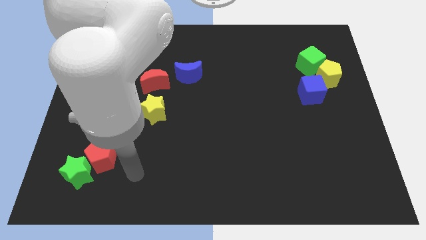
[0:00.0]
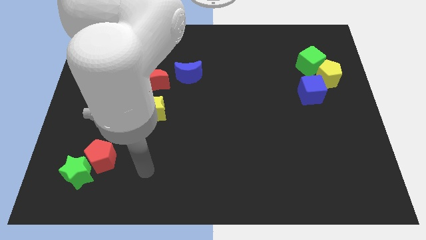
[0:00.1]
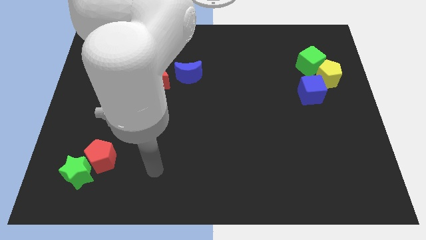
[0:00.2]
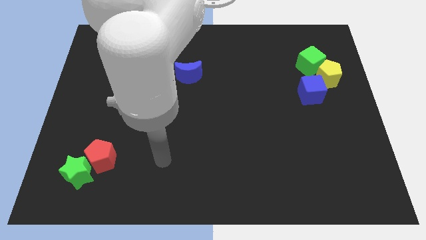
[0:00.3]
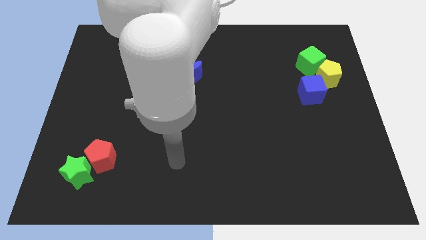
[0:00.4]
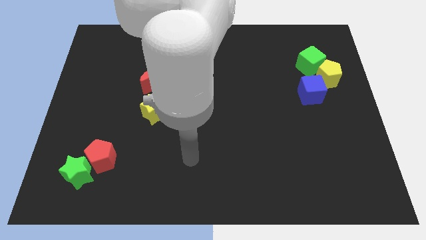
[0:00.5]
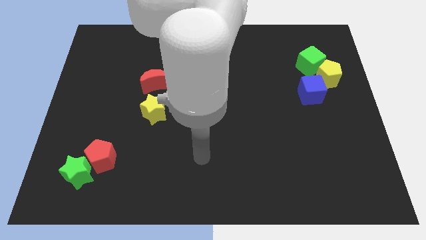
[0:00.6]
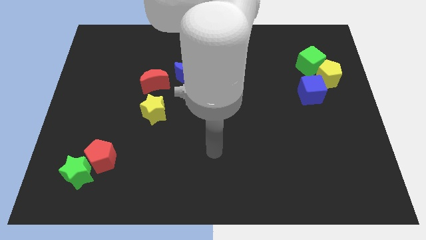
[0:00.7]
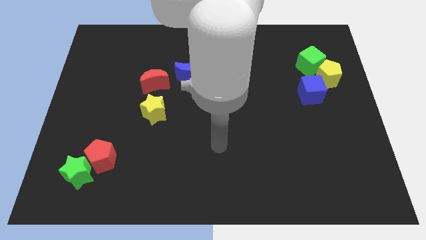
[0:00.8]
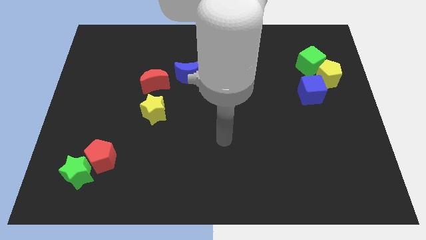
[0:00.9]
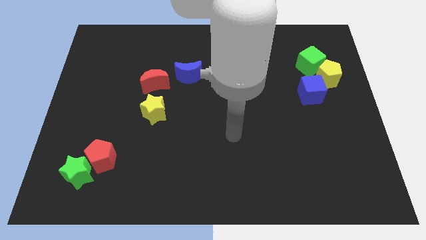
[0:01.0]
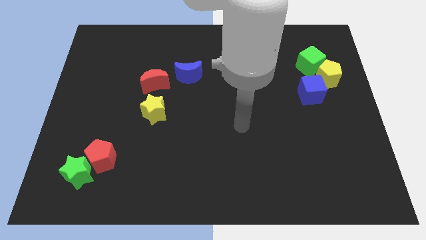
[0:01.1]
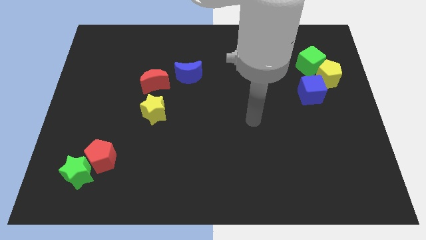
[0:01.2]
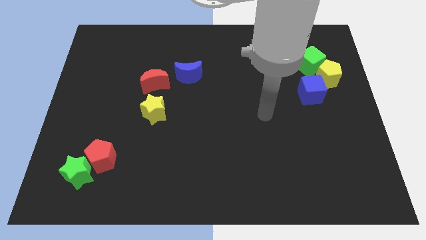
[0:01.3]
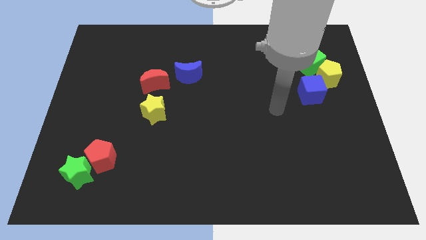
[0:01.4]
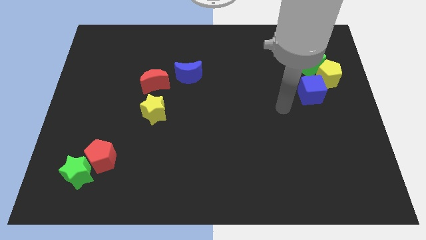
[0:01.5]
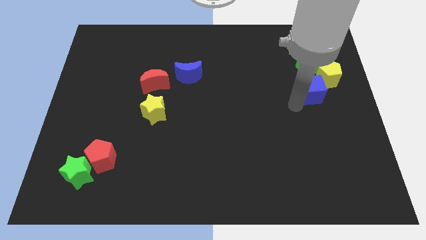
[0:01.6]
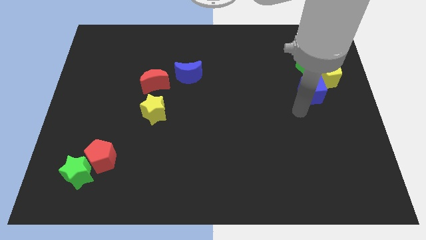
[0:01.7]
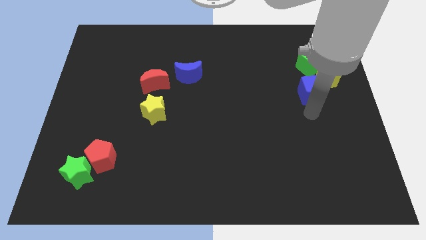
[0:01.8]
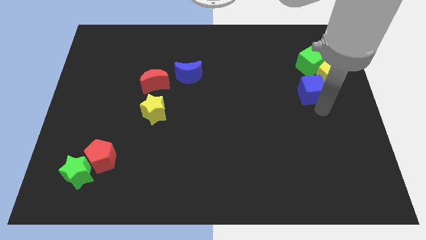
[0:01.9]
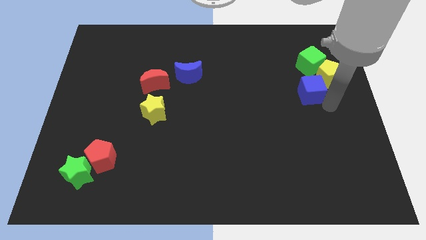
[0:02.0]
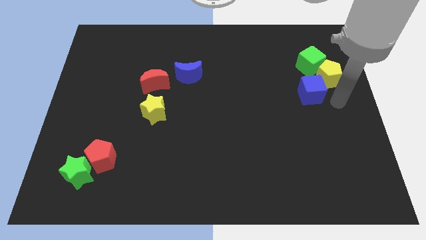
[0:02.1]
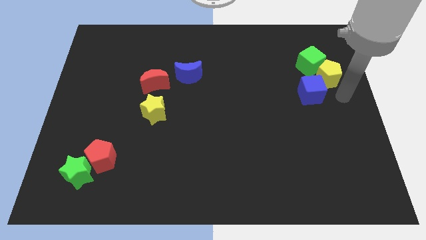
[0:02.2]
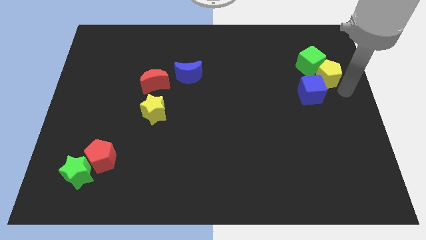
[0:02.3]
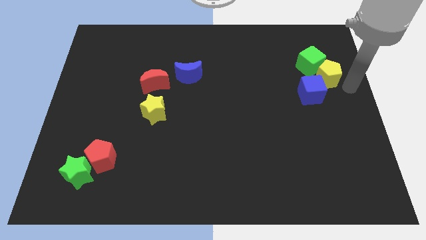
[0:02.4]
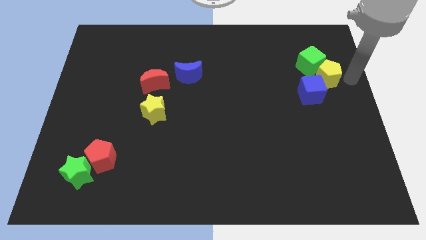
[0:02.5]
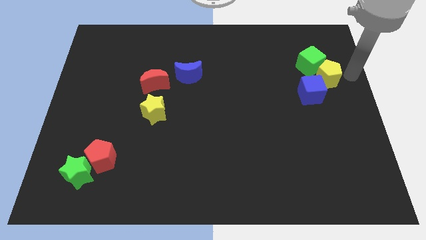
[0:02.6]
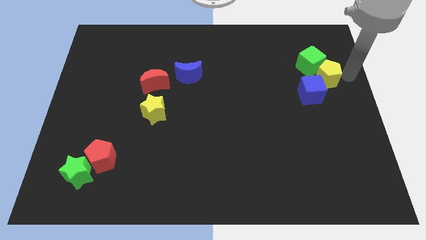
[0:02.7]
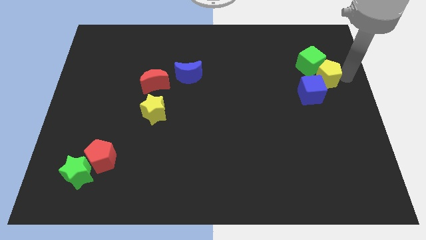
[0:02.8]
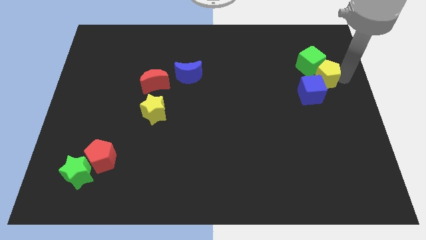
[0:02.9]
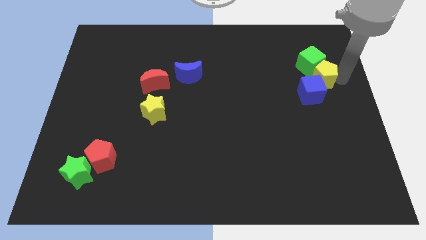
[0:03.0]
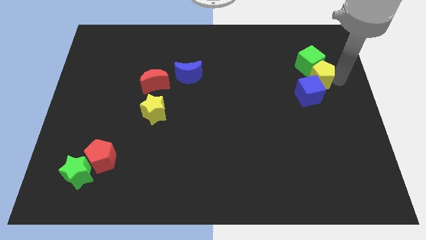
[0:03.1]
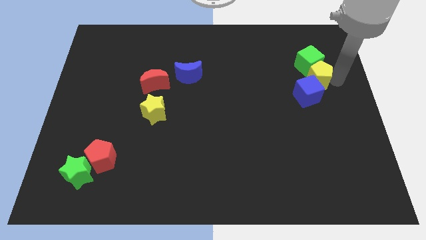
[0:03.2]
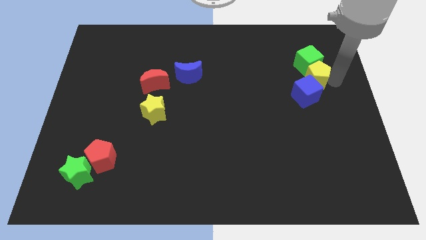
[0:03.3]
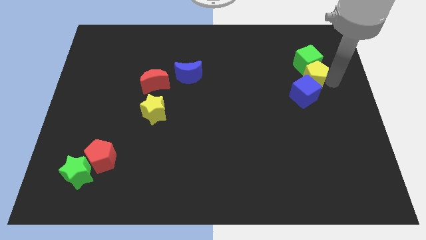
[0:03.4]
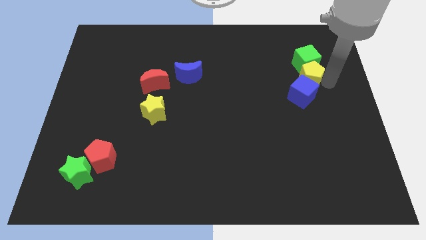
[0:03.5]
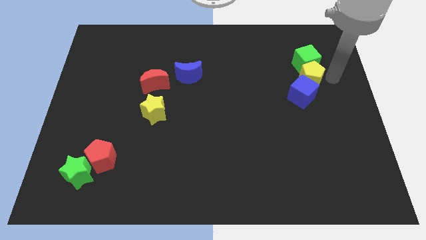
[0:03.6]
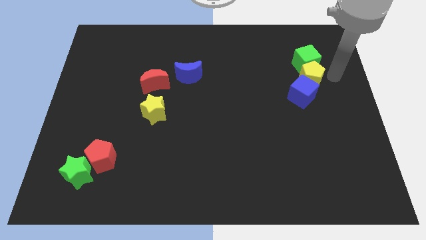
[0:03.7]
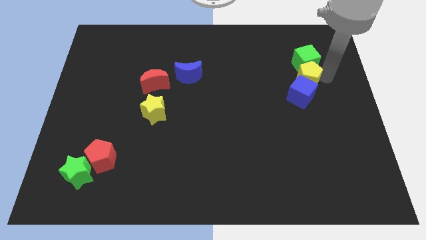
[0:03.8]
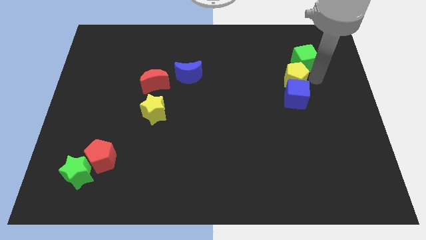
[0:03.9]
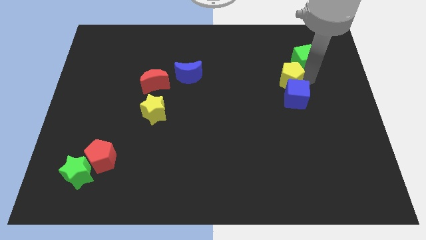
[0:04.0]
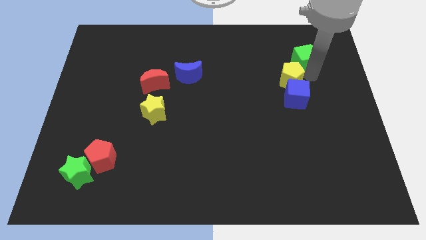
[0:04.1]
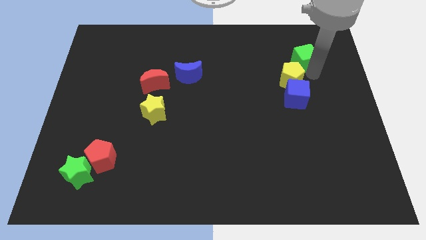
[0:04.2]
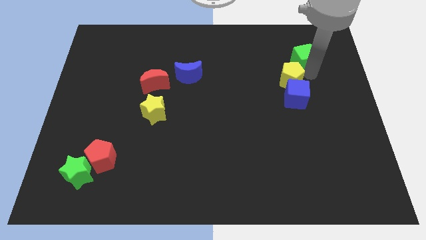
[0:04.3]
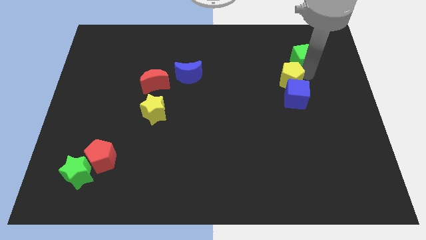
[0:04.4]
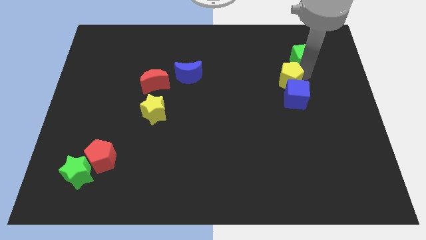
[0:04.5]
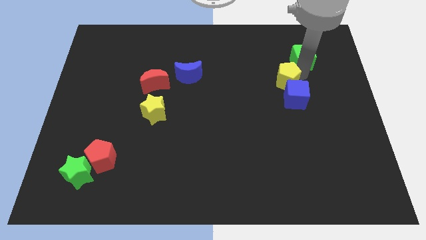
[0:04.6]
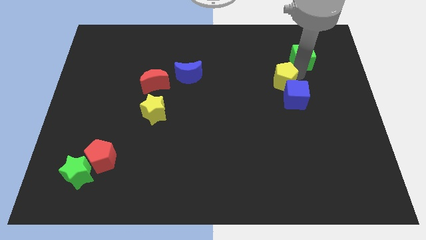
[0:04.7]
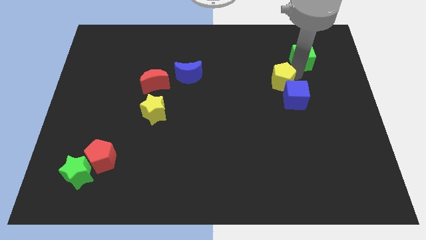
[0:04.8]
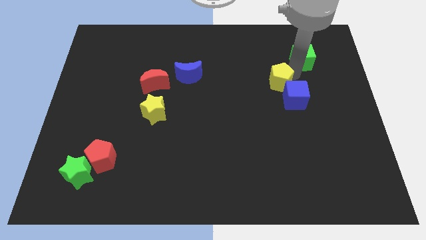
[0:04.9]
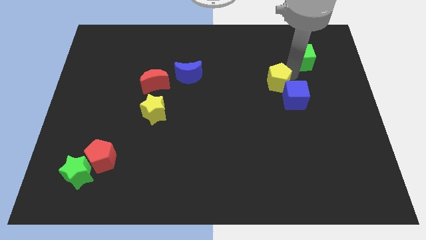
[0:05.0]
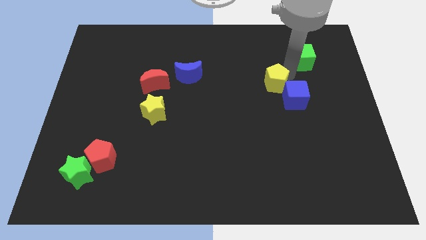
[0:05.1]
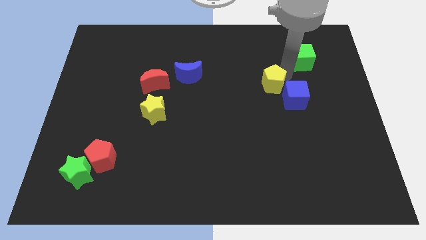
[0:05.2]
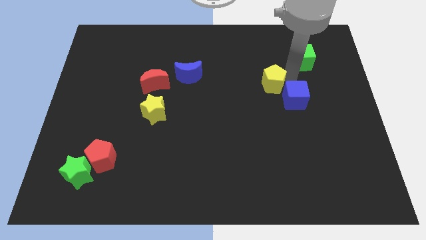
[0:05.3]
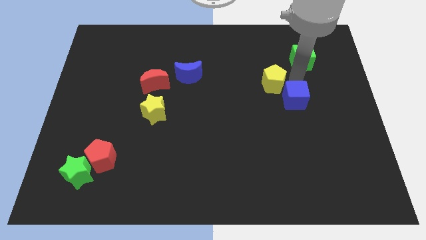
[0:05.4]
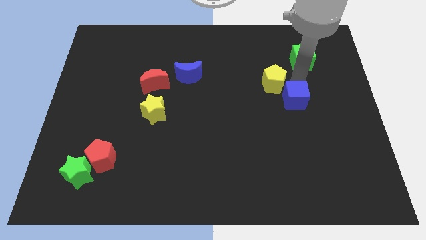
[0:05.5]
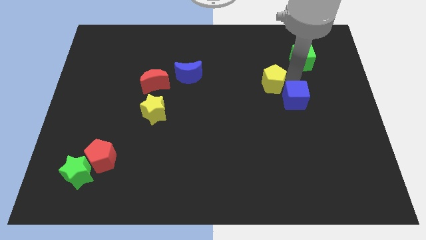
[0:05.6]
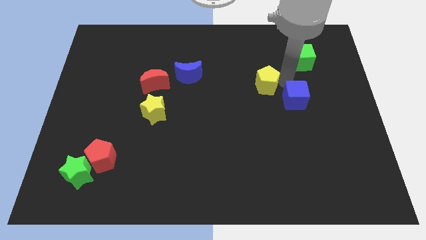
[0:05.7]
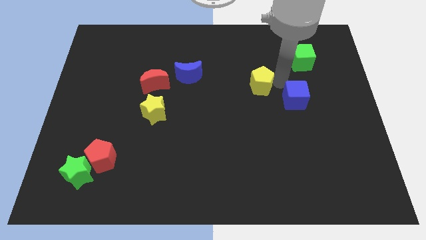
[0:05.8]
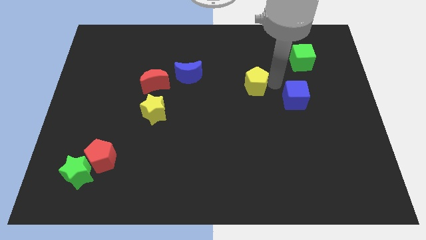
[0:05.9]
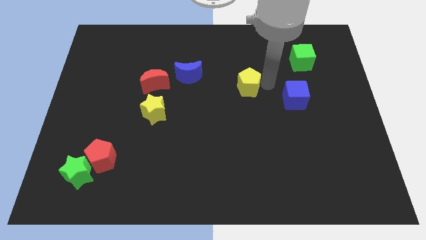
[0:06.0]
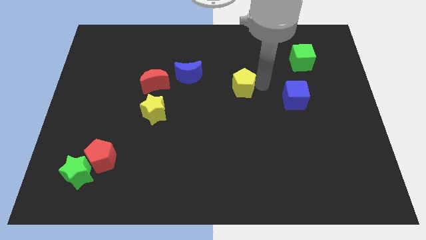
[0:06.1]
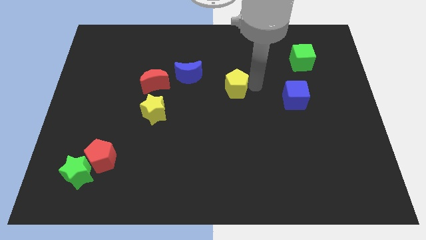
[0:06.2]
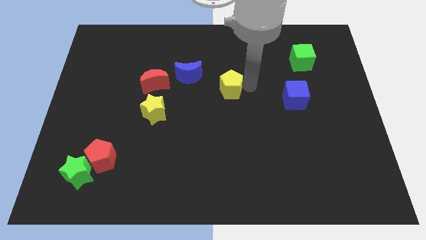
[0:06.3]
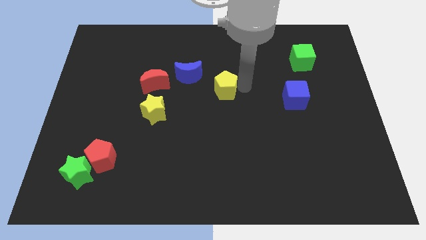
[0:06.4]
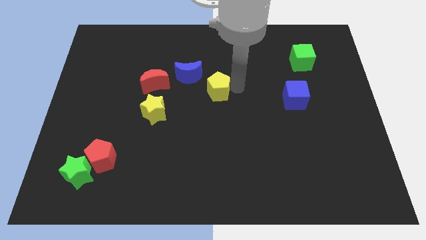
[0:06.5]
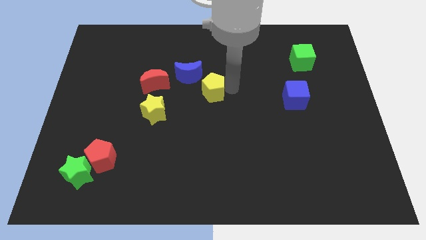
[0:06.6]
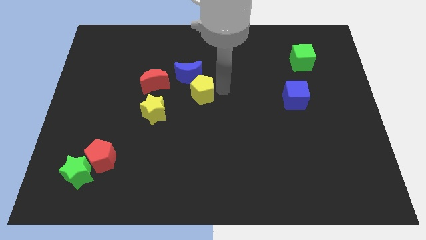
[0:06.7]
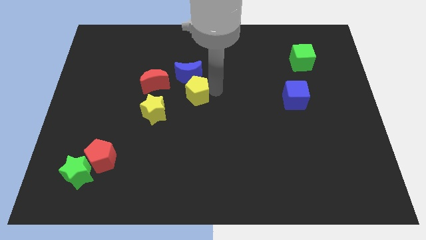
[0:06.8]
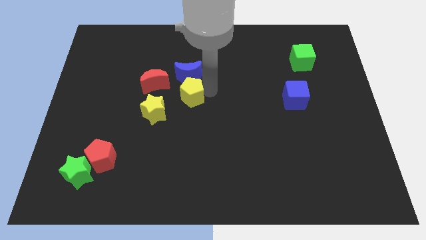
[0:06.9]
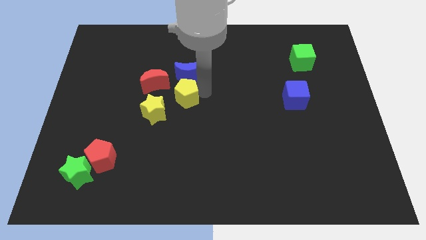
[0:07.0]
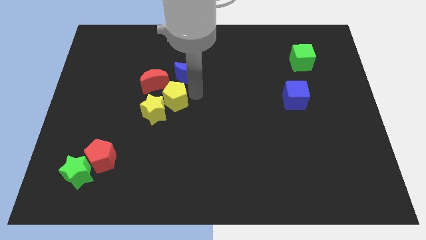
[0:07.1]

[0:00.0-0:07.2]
push the yellow pentagon towards the yellow star
